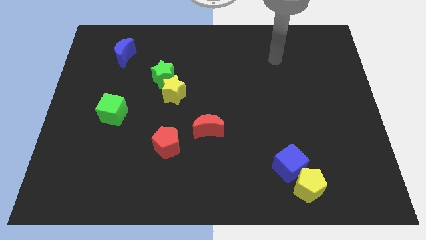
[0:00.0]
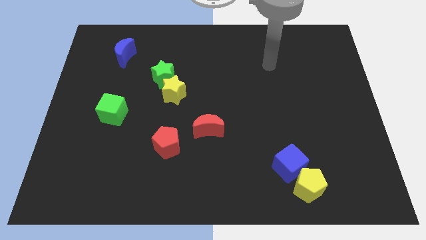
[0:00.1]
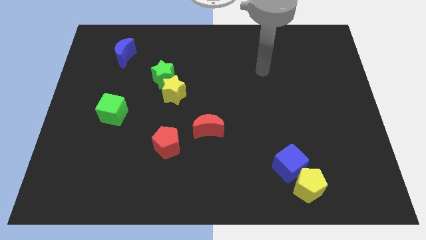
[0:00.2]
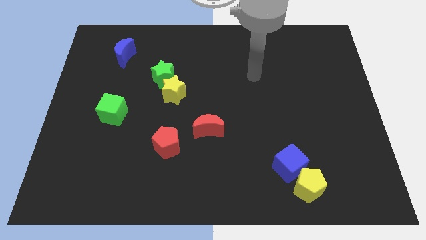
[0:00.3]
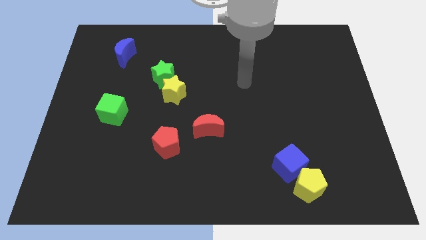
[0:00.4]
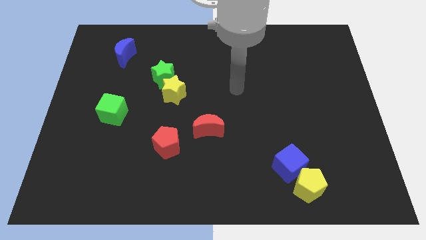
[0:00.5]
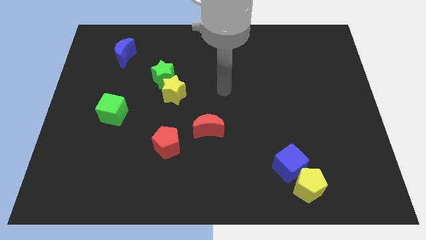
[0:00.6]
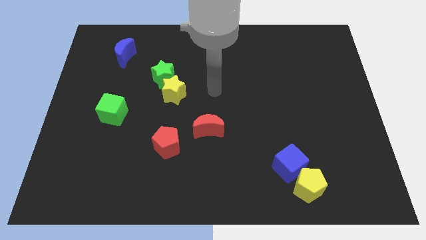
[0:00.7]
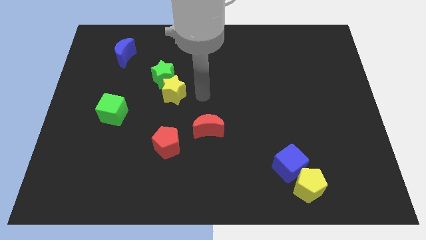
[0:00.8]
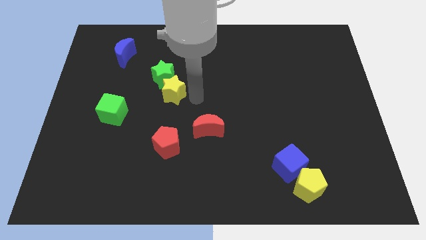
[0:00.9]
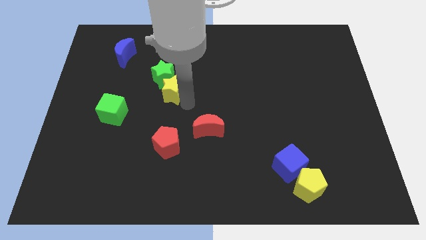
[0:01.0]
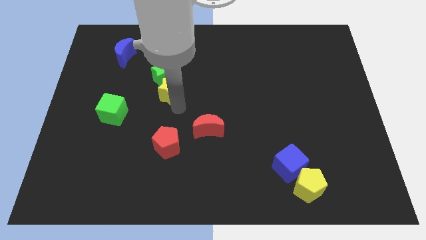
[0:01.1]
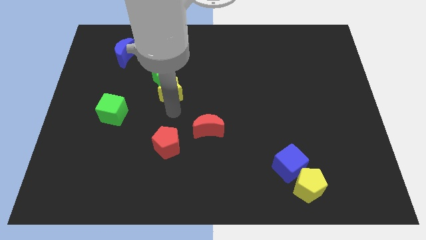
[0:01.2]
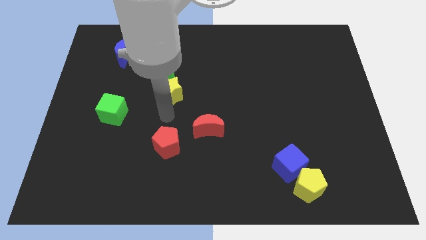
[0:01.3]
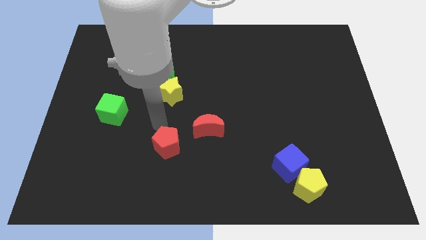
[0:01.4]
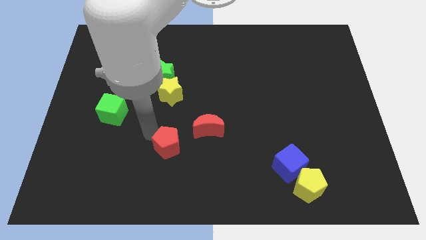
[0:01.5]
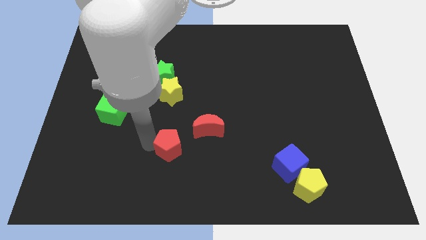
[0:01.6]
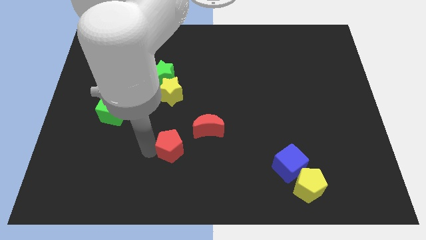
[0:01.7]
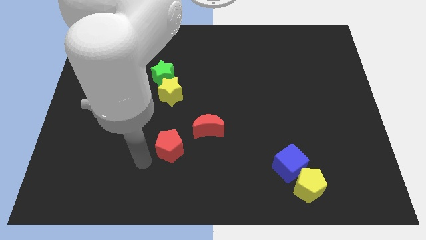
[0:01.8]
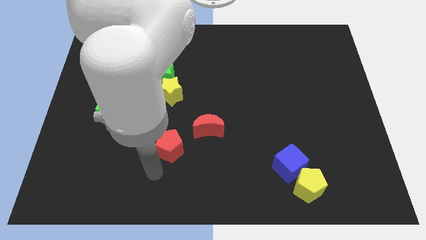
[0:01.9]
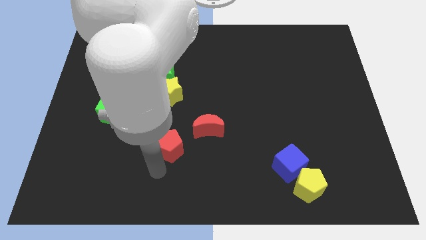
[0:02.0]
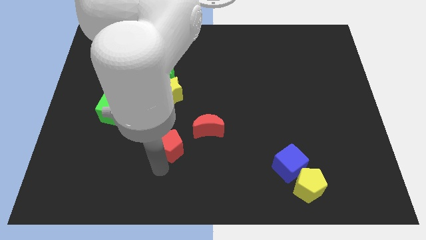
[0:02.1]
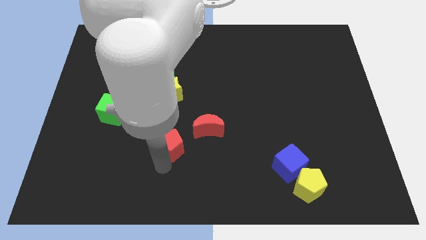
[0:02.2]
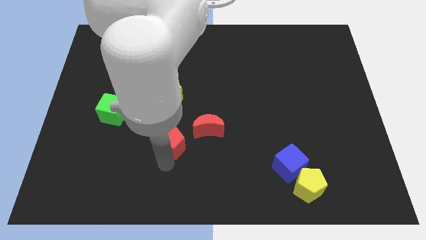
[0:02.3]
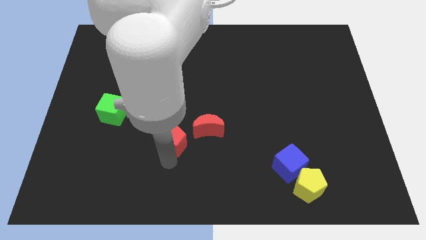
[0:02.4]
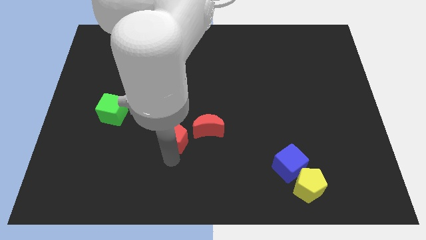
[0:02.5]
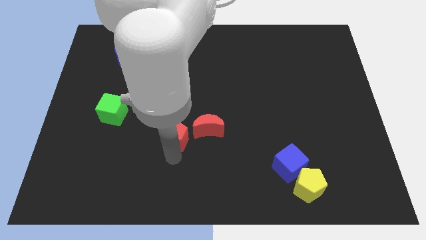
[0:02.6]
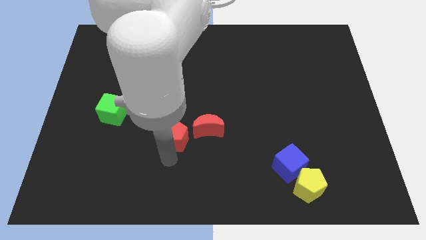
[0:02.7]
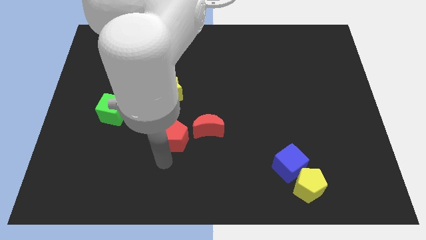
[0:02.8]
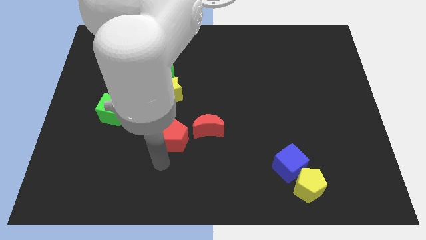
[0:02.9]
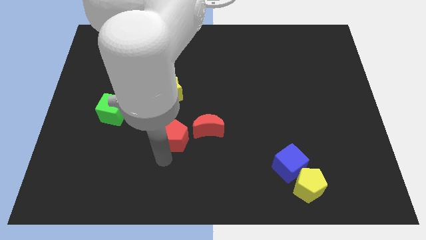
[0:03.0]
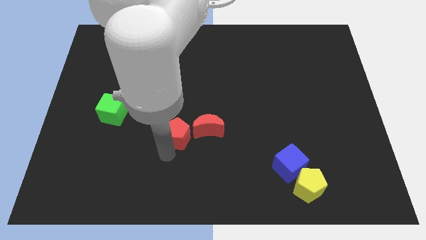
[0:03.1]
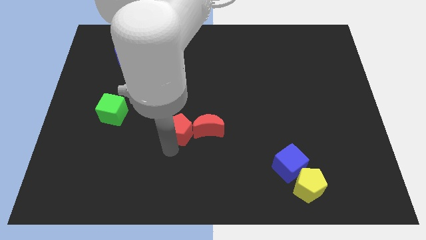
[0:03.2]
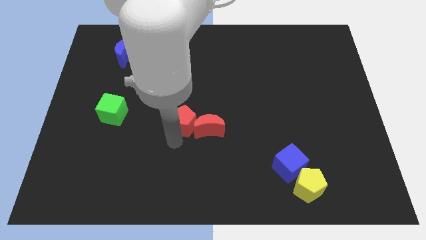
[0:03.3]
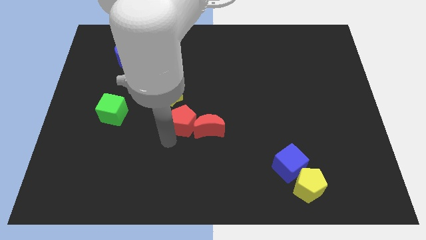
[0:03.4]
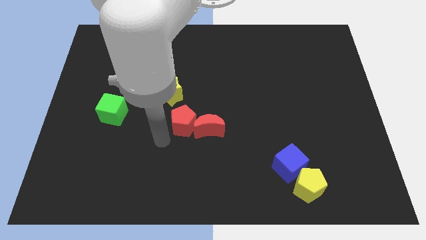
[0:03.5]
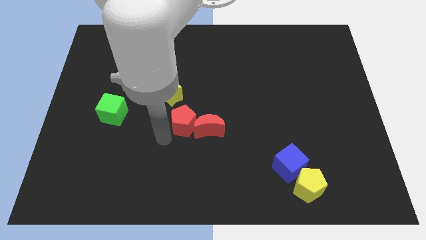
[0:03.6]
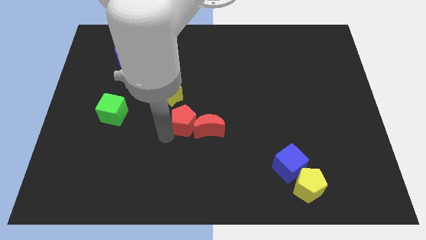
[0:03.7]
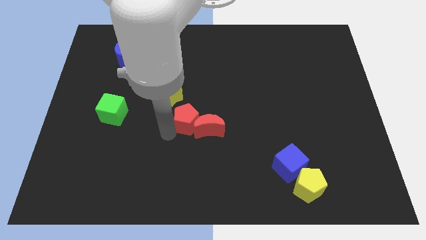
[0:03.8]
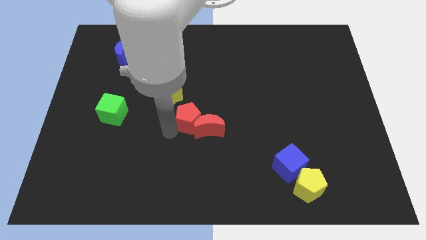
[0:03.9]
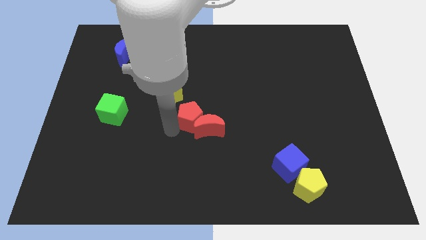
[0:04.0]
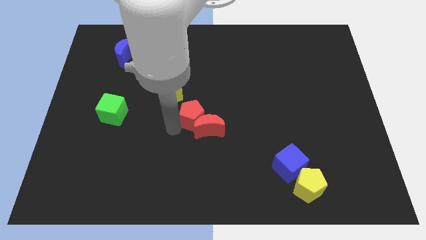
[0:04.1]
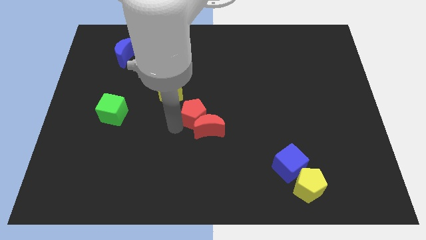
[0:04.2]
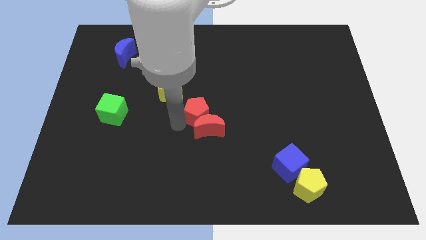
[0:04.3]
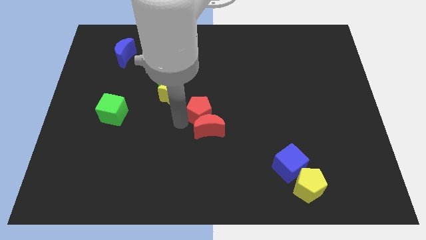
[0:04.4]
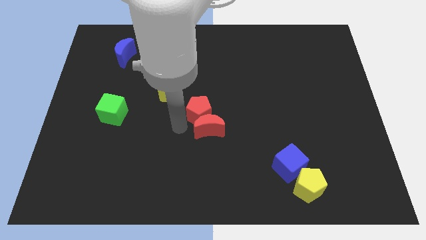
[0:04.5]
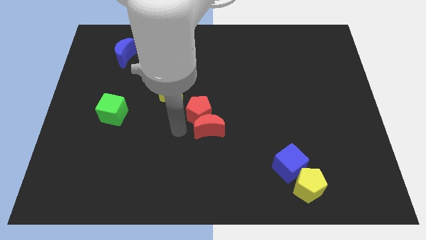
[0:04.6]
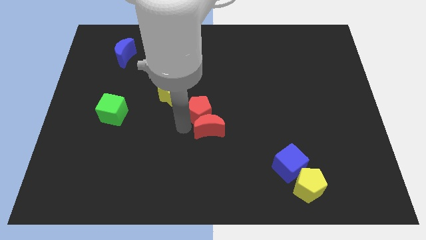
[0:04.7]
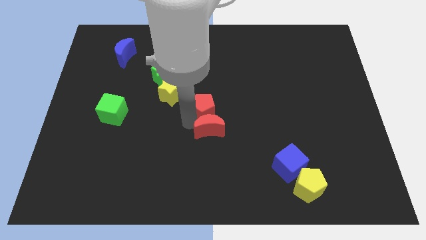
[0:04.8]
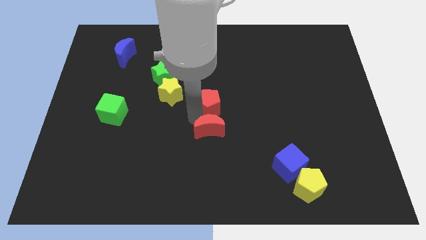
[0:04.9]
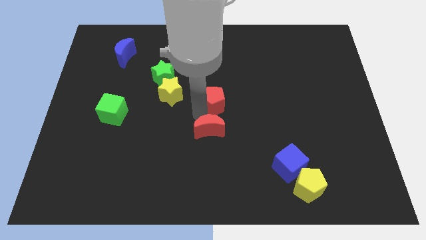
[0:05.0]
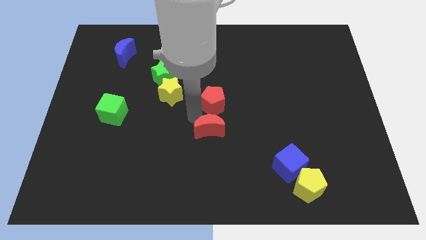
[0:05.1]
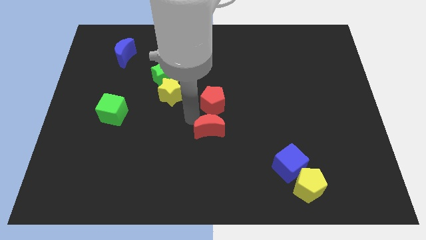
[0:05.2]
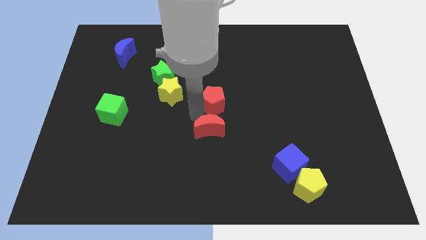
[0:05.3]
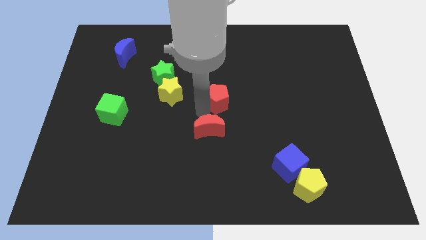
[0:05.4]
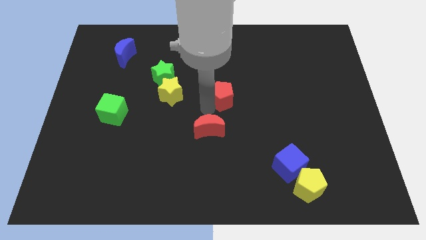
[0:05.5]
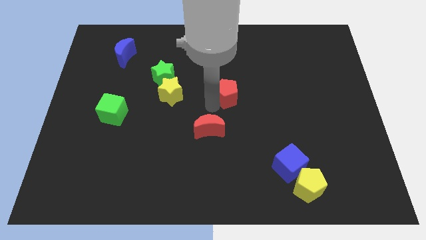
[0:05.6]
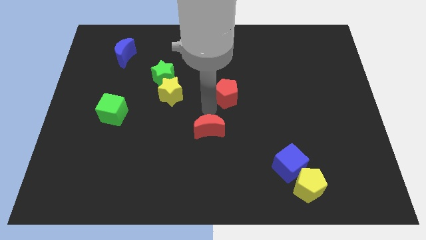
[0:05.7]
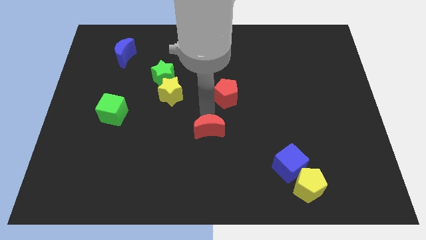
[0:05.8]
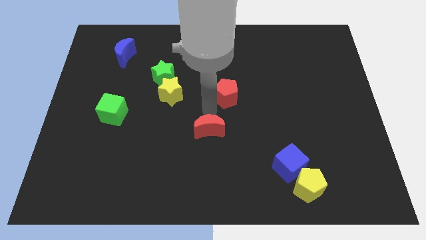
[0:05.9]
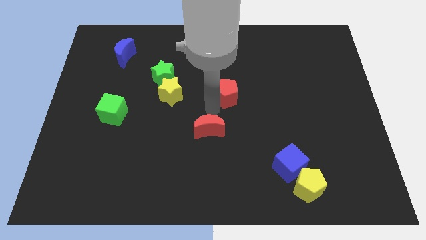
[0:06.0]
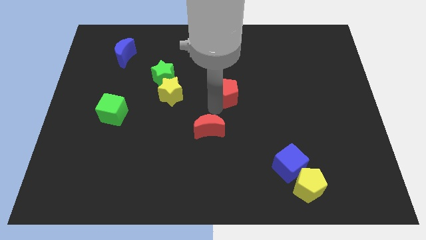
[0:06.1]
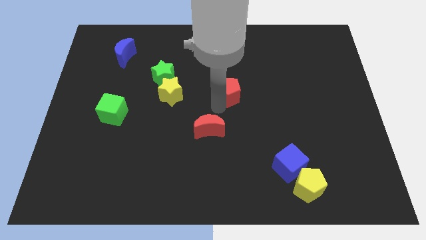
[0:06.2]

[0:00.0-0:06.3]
push the red pentagon up and to the right

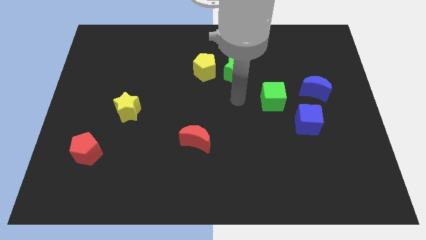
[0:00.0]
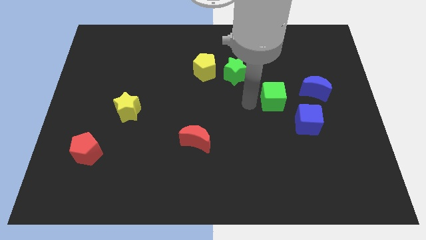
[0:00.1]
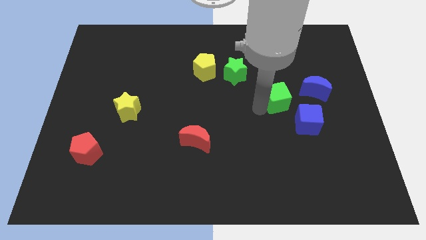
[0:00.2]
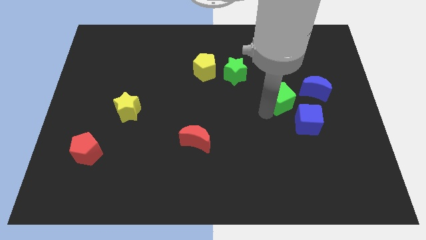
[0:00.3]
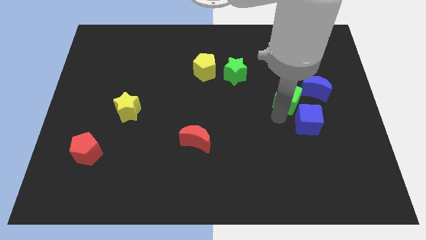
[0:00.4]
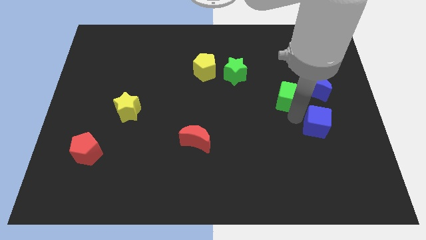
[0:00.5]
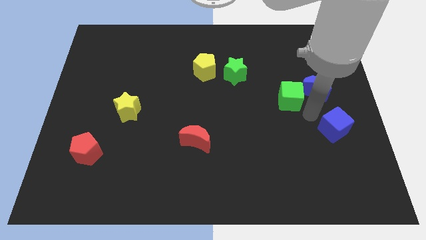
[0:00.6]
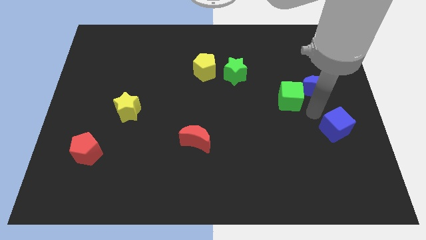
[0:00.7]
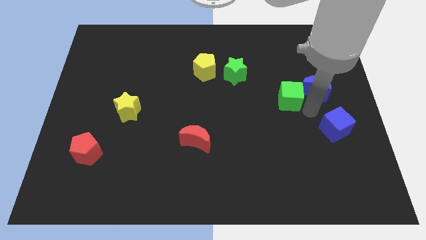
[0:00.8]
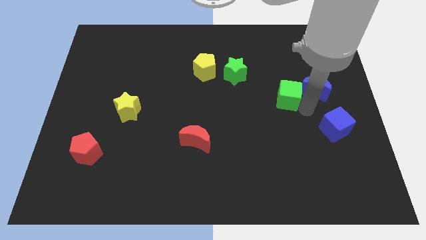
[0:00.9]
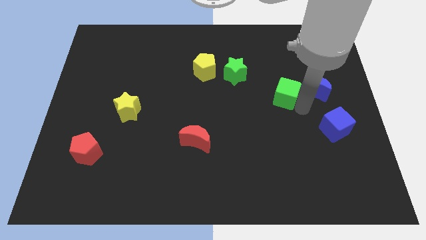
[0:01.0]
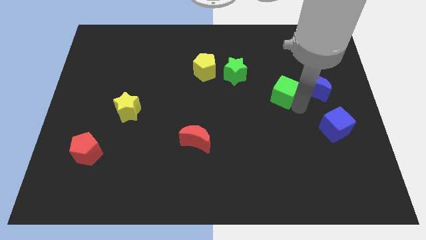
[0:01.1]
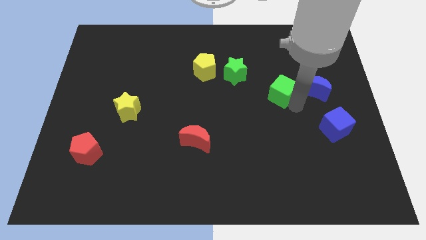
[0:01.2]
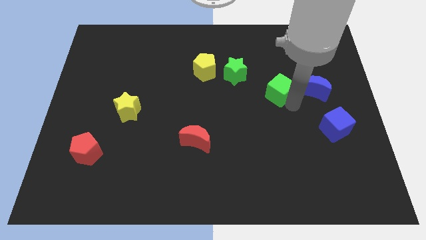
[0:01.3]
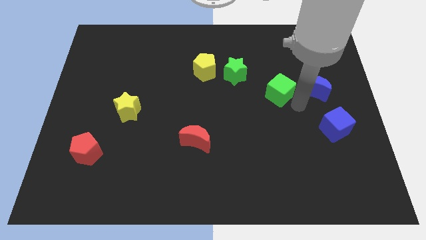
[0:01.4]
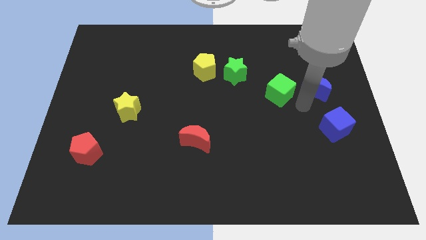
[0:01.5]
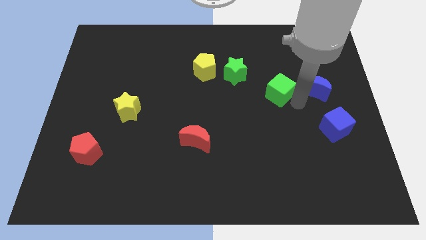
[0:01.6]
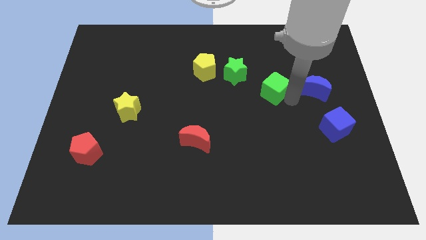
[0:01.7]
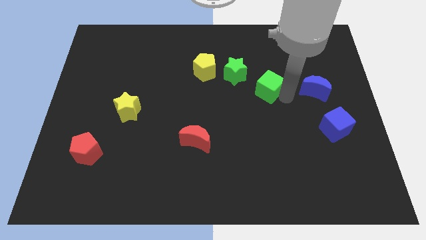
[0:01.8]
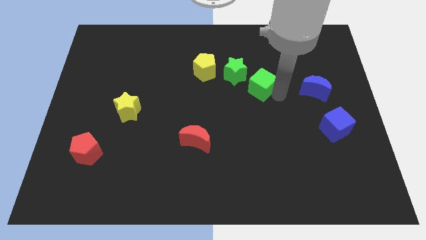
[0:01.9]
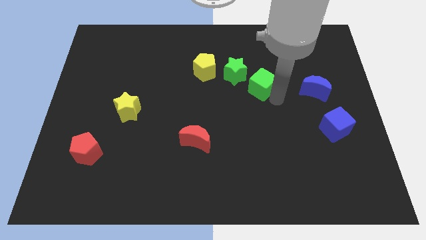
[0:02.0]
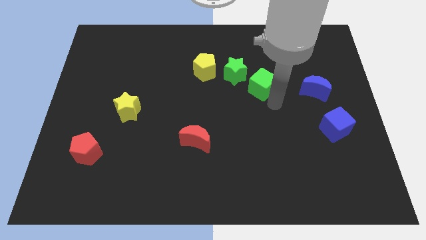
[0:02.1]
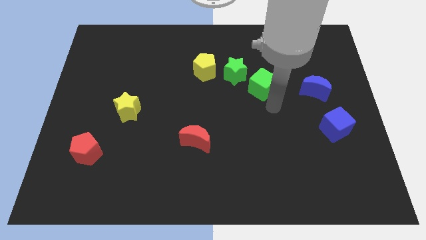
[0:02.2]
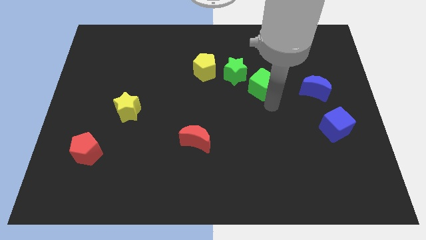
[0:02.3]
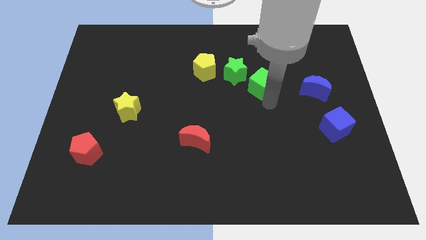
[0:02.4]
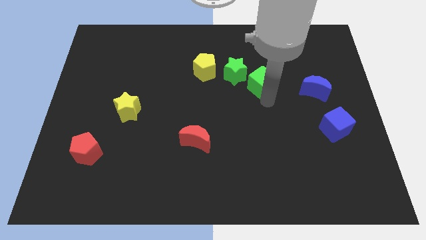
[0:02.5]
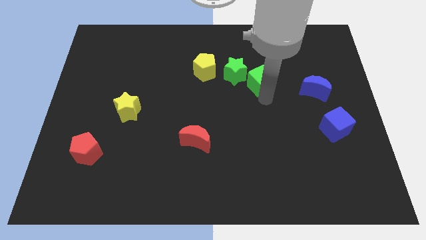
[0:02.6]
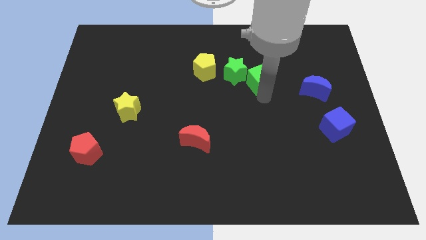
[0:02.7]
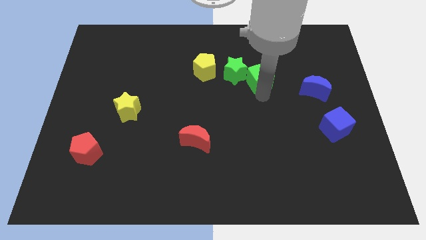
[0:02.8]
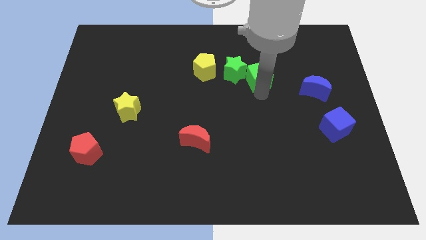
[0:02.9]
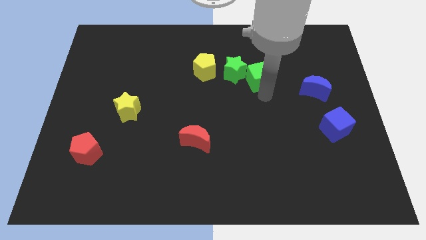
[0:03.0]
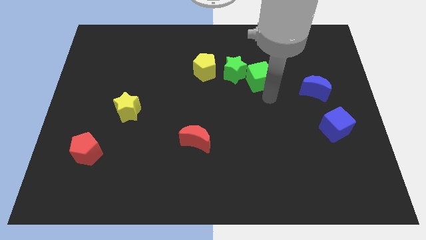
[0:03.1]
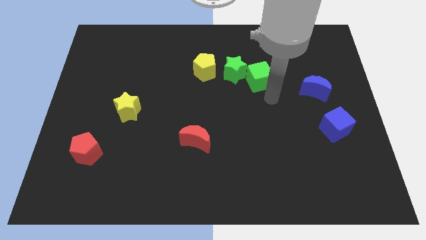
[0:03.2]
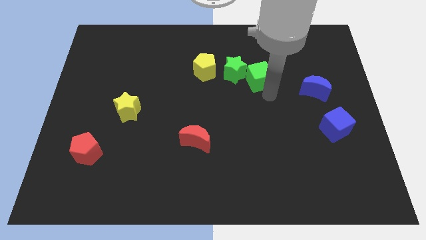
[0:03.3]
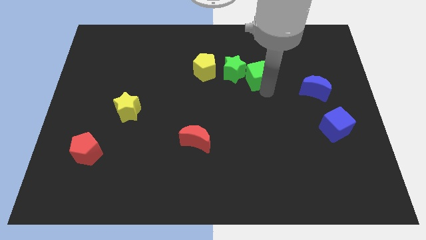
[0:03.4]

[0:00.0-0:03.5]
slightly move the green cube up and to the left diagonally
